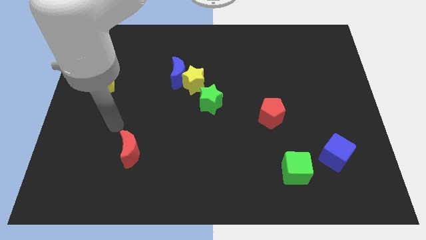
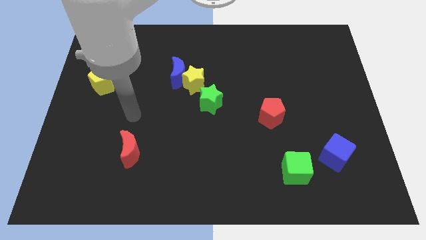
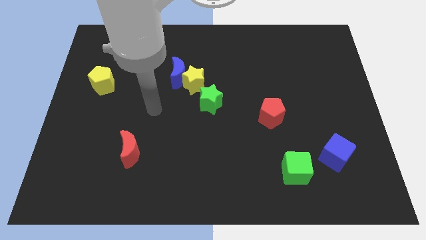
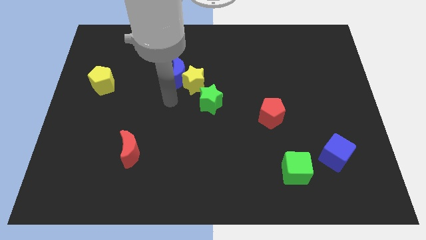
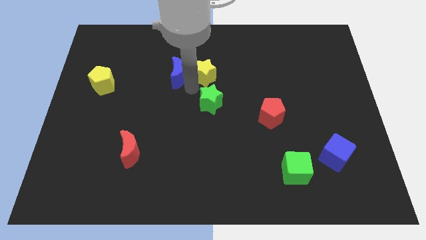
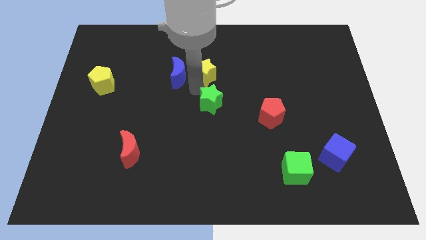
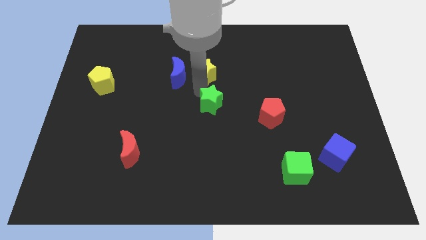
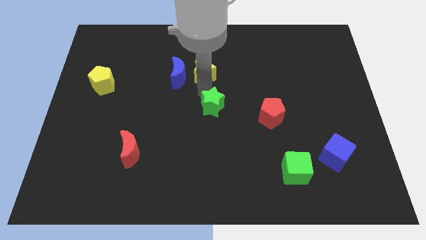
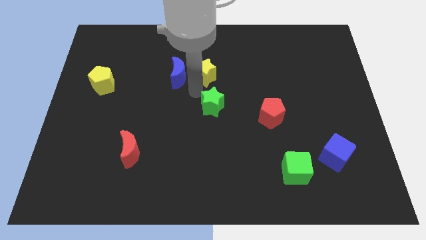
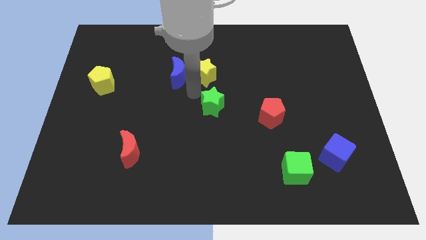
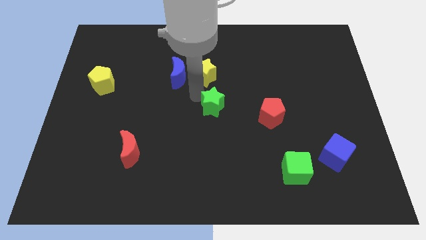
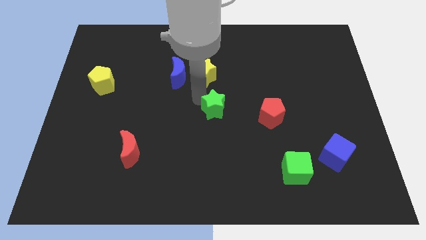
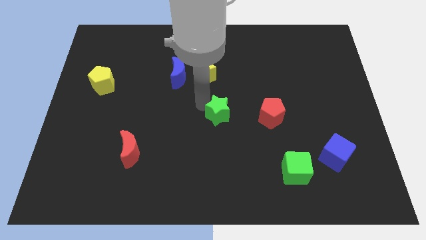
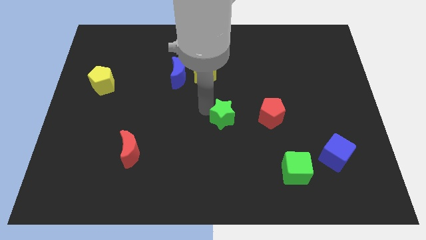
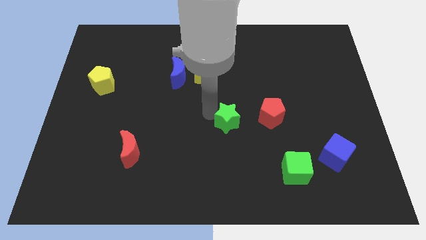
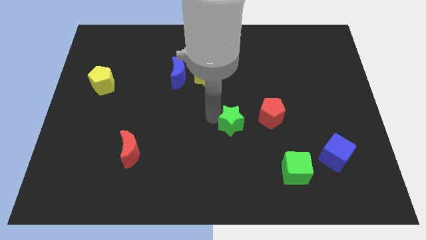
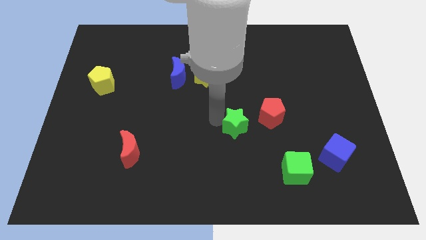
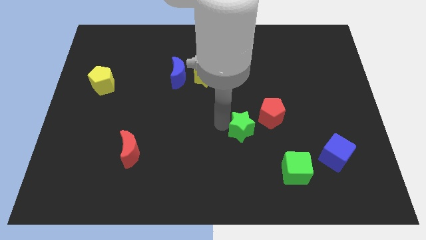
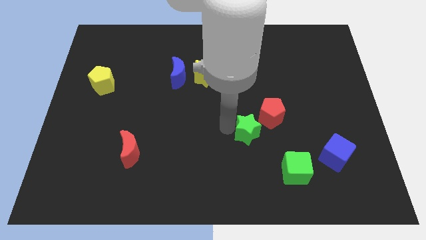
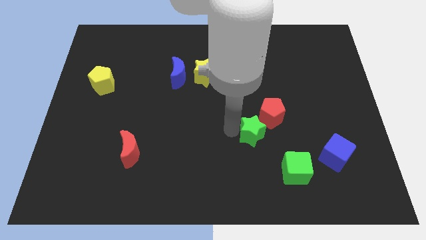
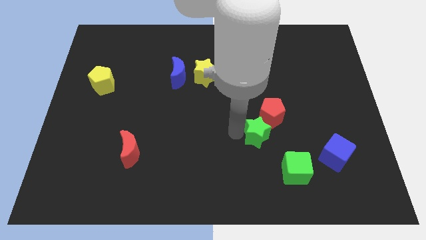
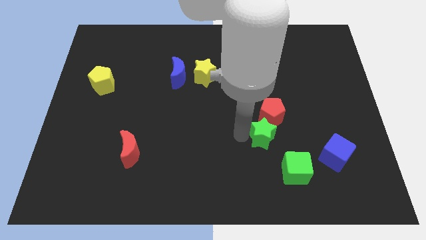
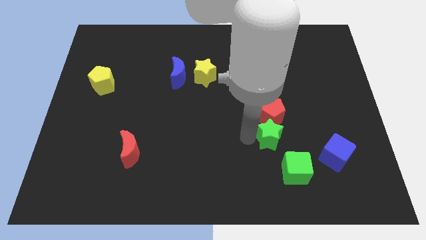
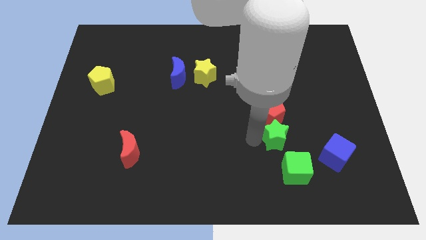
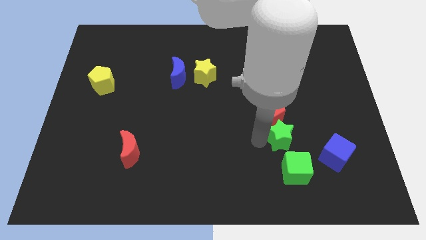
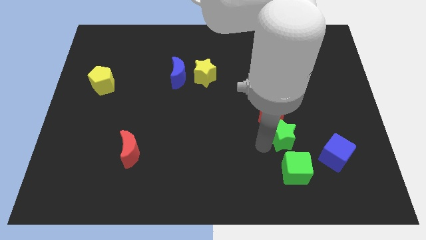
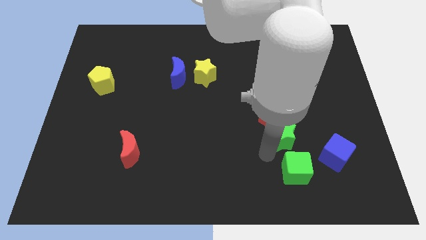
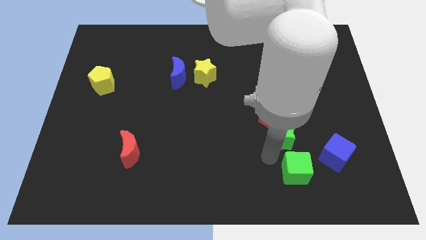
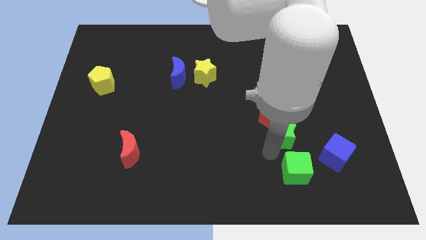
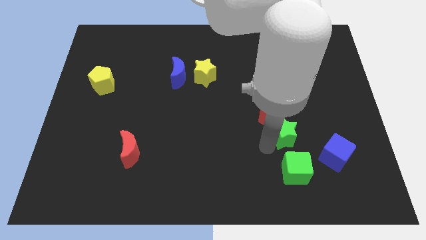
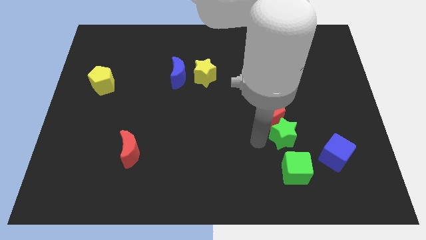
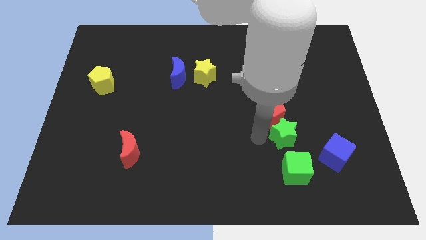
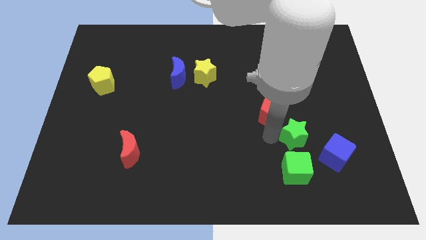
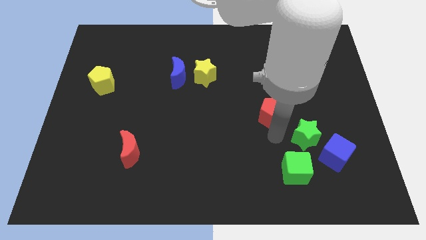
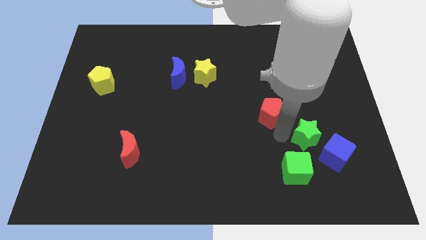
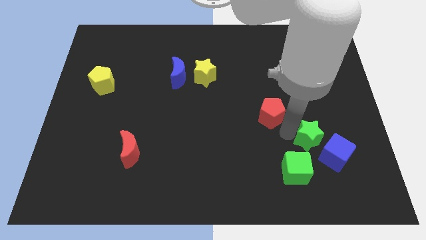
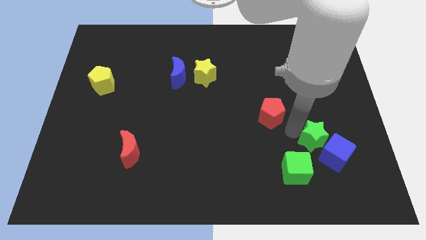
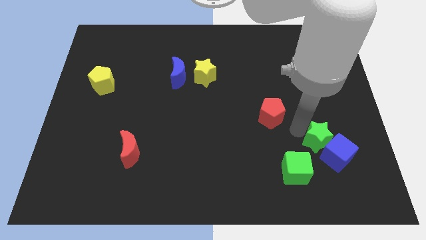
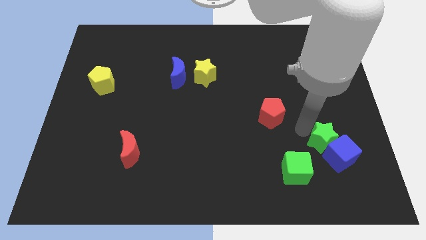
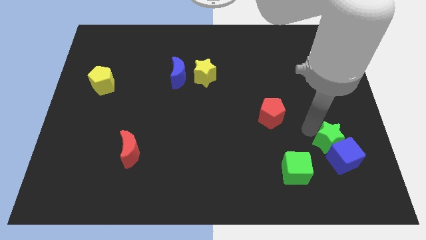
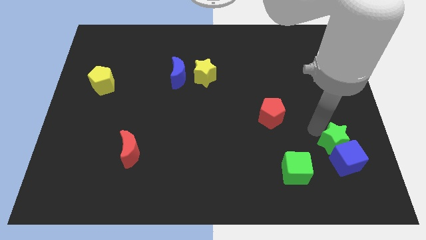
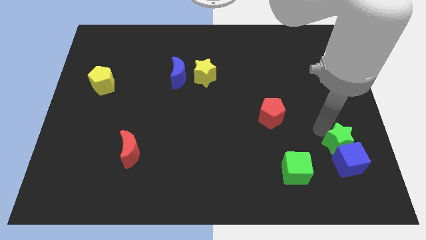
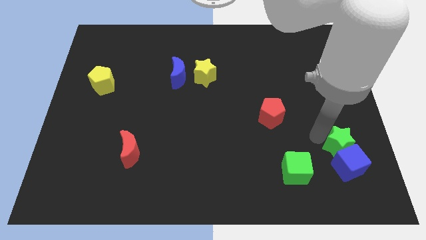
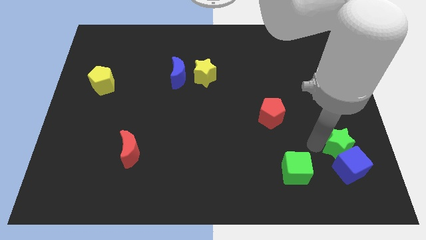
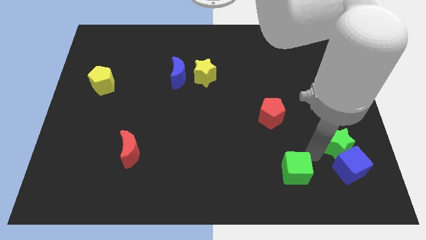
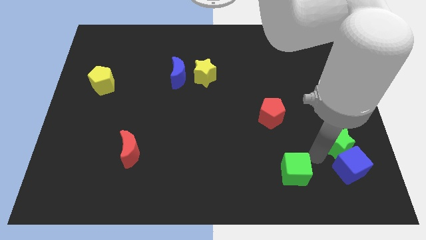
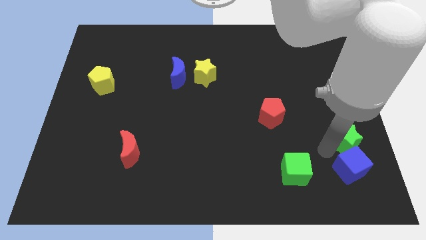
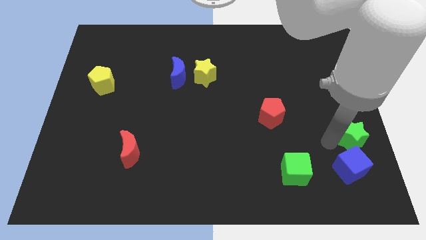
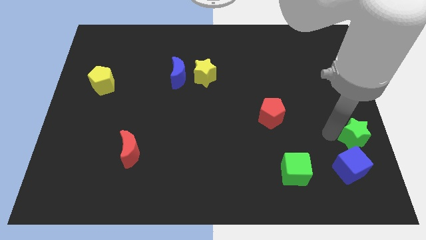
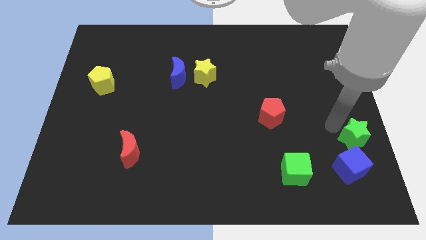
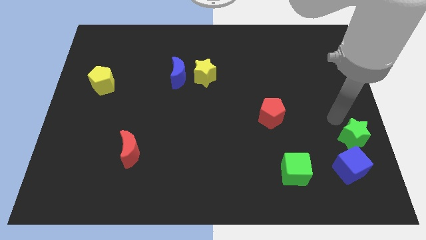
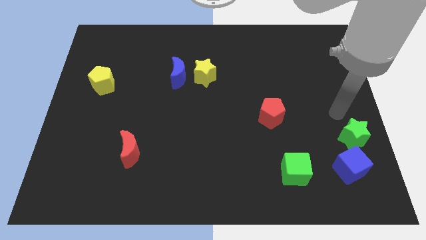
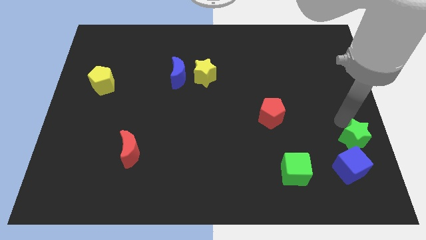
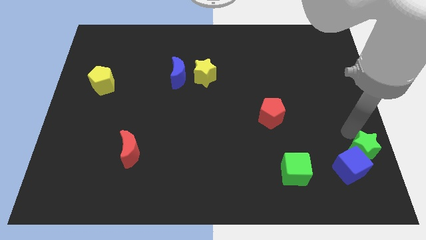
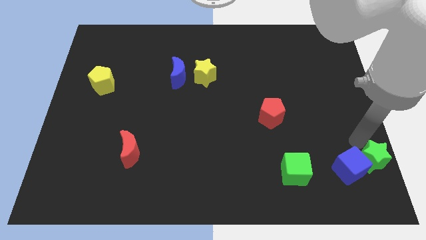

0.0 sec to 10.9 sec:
slide the green star to the lower right corner

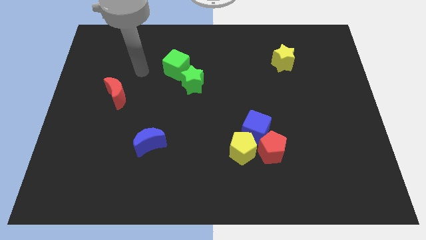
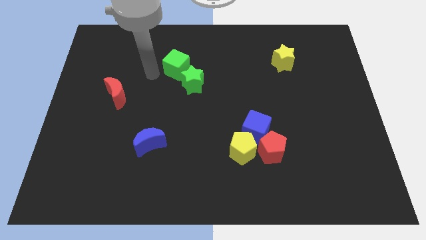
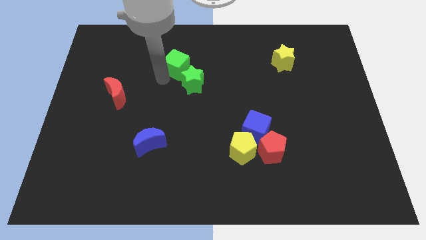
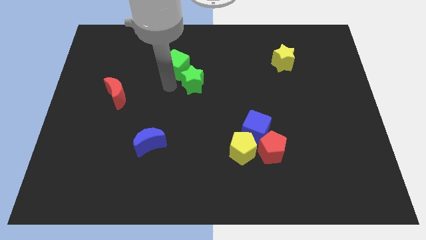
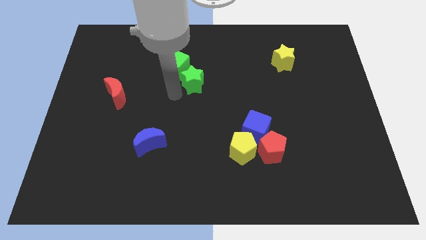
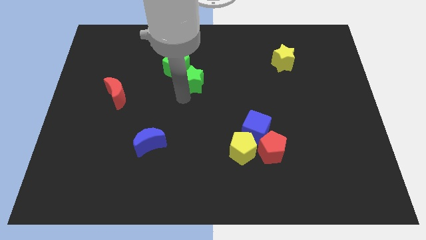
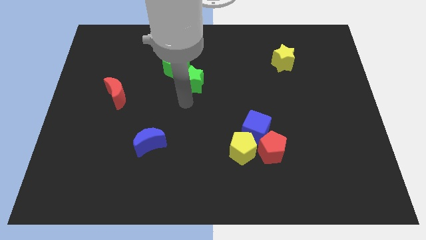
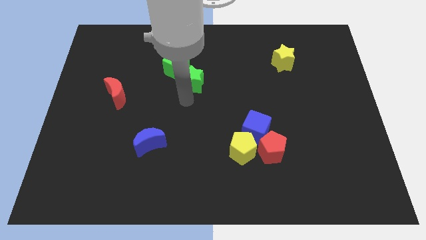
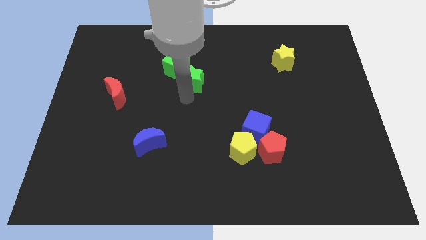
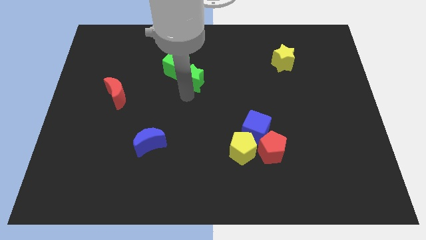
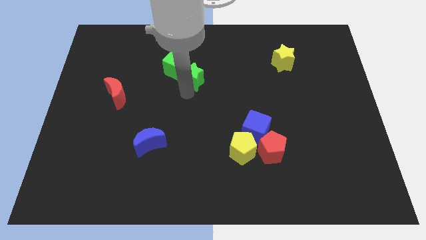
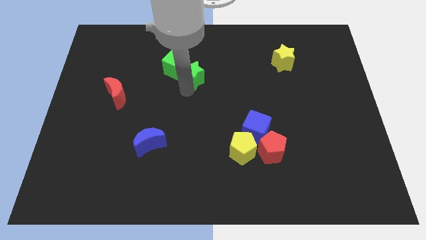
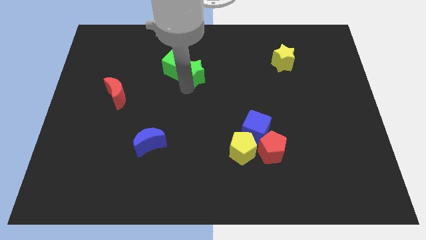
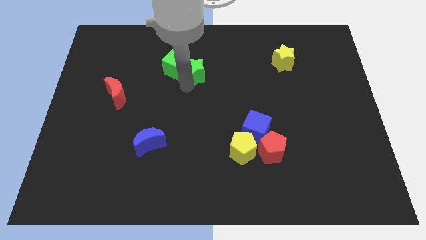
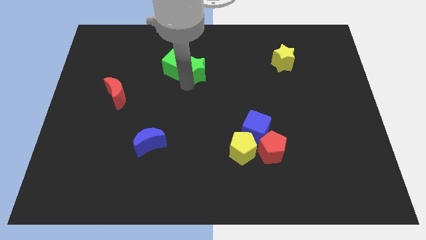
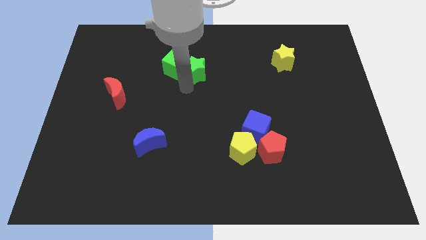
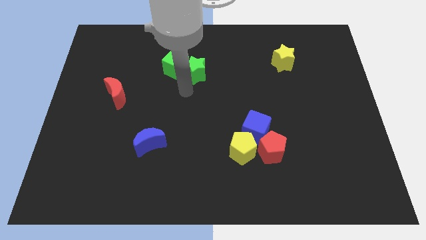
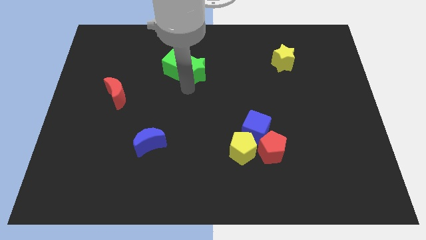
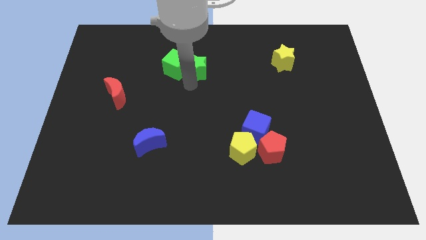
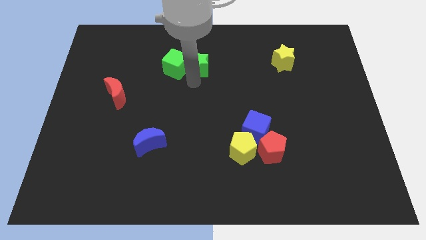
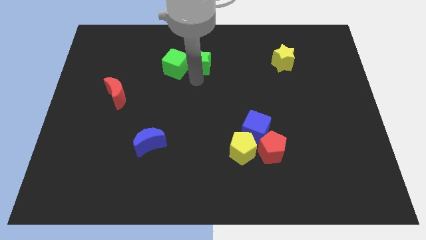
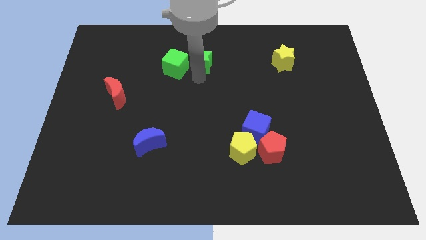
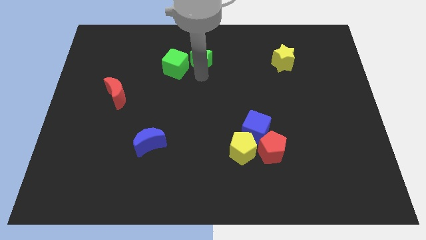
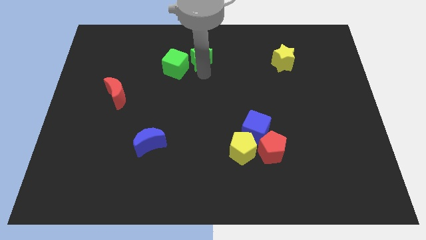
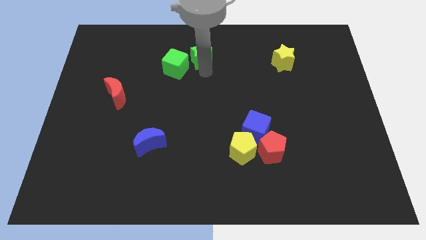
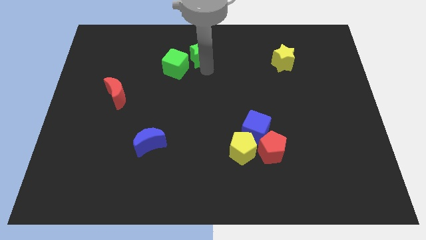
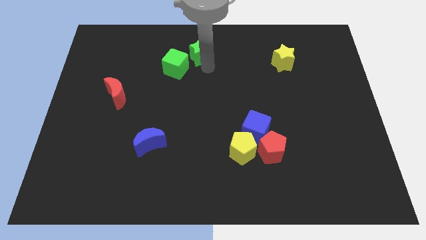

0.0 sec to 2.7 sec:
push the green star to the top side
